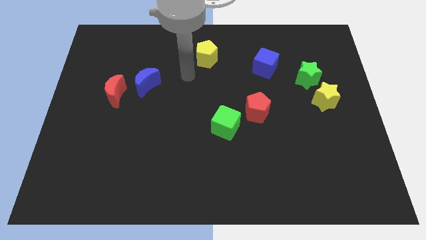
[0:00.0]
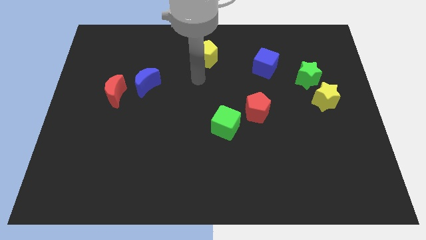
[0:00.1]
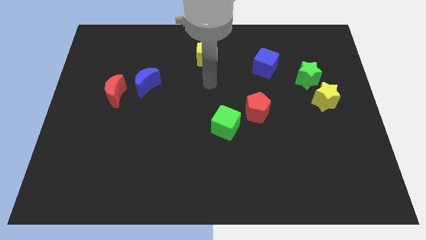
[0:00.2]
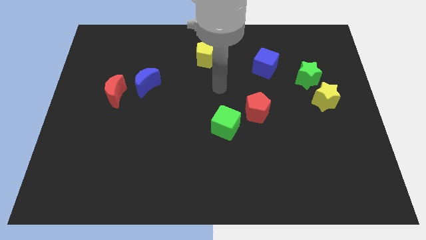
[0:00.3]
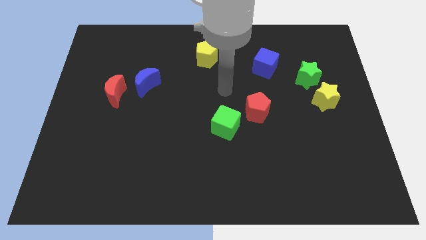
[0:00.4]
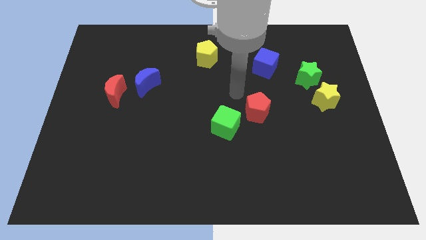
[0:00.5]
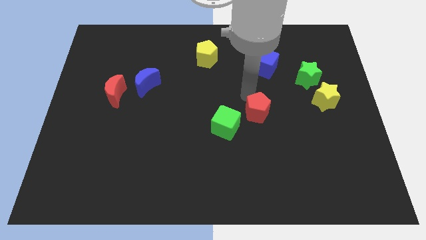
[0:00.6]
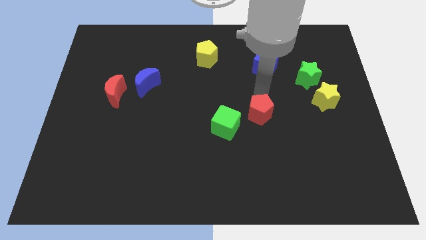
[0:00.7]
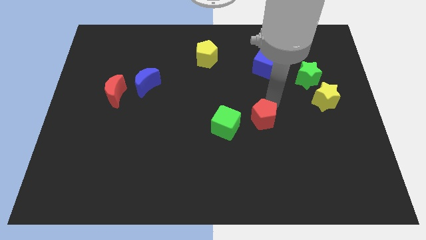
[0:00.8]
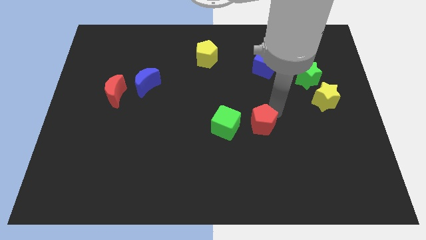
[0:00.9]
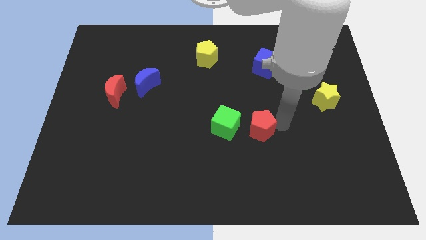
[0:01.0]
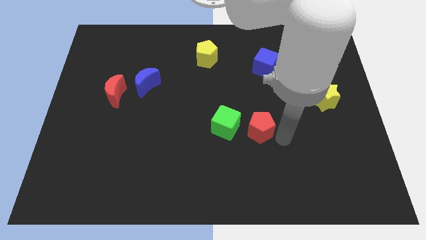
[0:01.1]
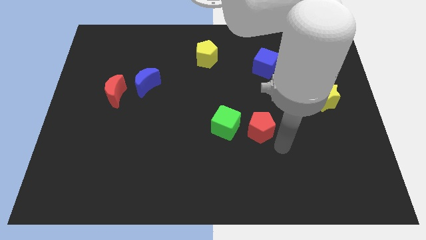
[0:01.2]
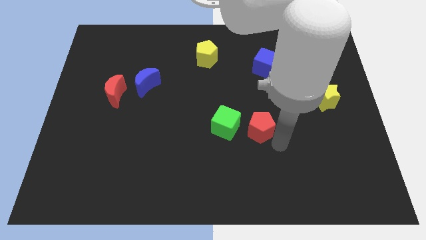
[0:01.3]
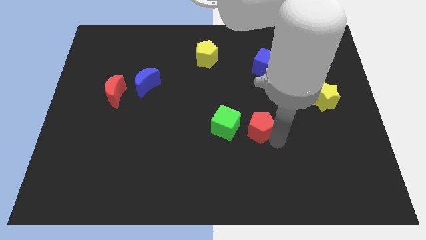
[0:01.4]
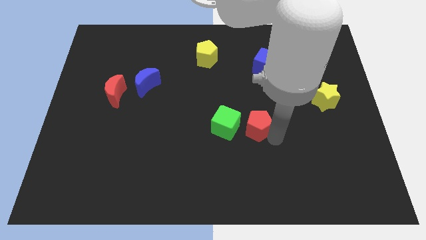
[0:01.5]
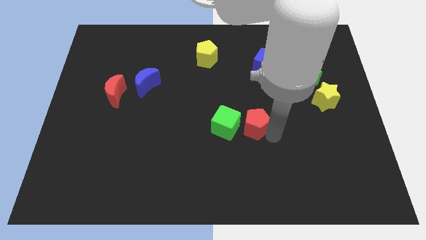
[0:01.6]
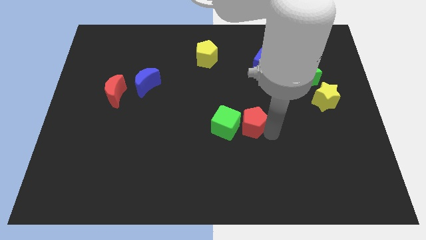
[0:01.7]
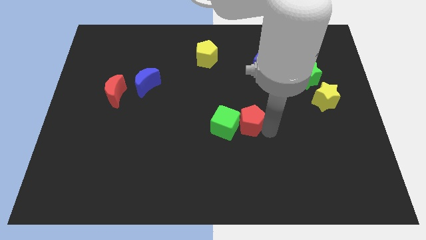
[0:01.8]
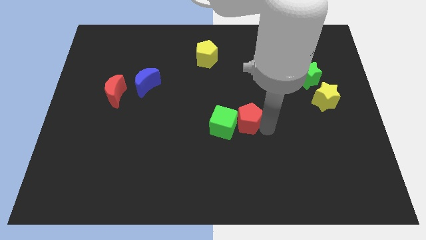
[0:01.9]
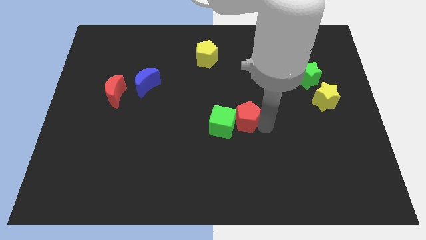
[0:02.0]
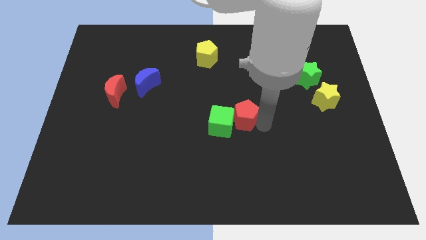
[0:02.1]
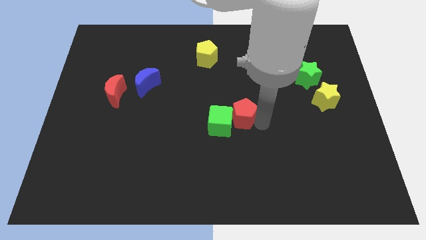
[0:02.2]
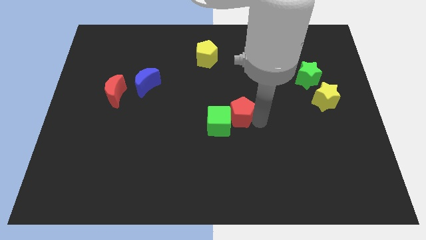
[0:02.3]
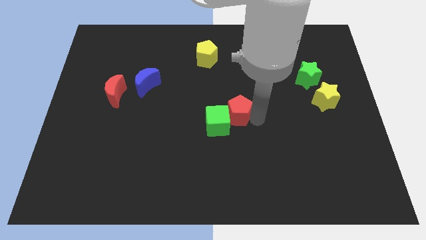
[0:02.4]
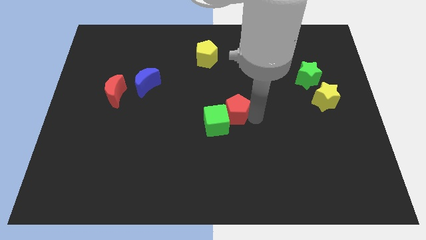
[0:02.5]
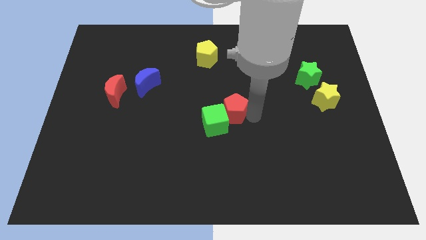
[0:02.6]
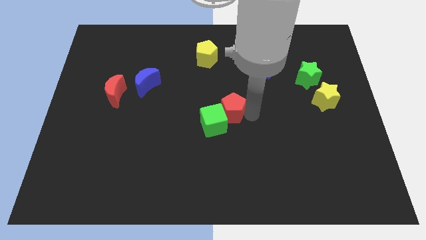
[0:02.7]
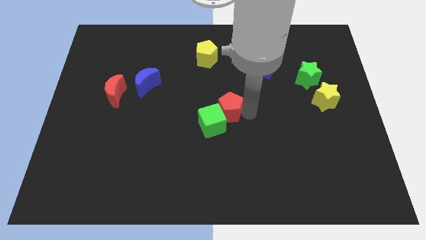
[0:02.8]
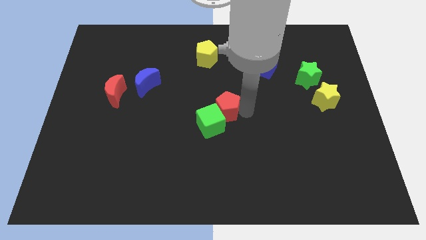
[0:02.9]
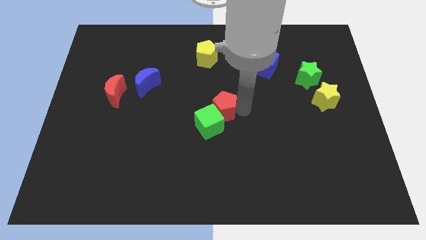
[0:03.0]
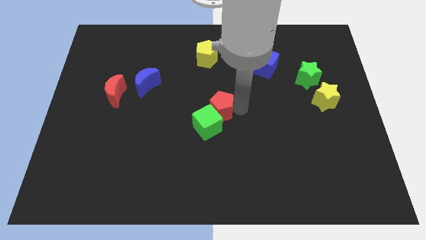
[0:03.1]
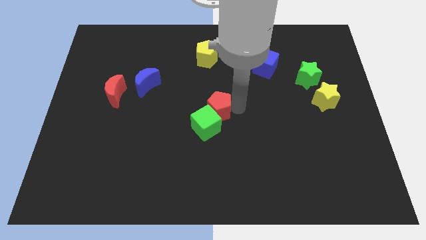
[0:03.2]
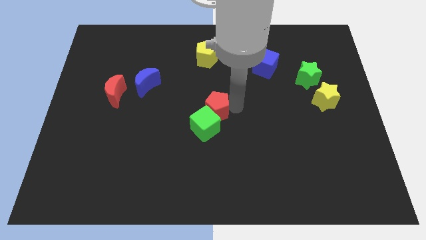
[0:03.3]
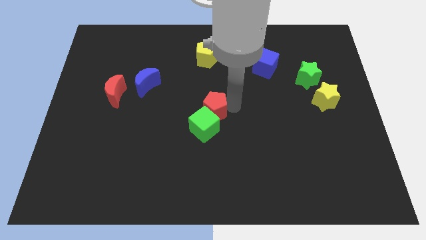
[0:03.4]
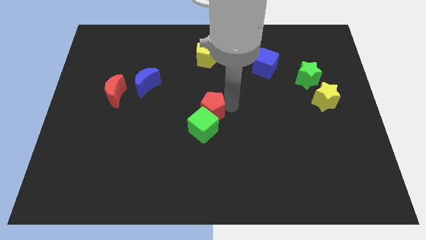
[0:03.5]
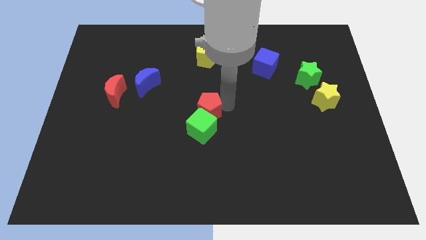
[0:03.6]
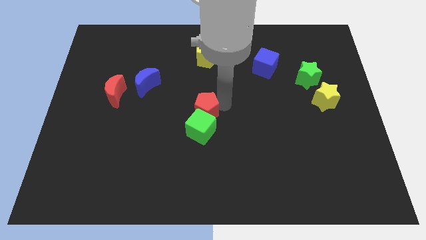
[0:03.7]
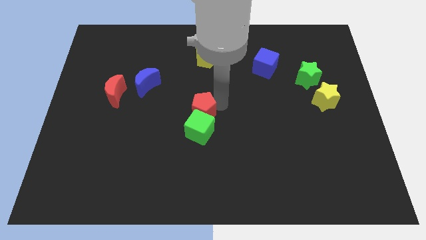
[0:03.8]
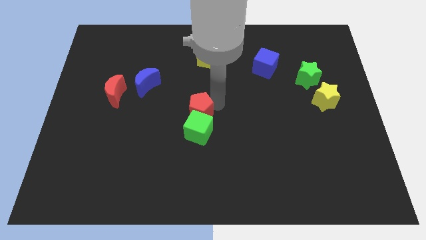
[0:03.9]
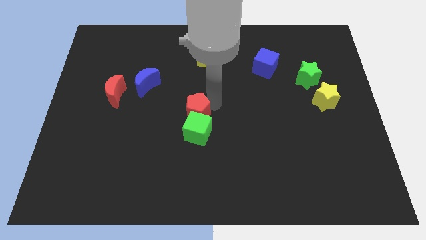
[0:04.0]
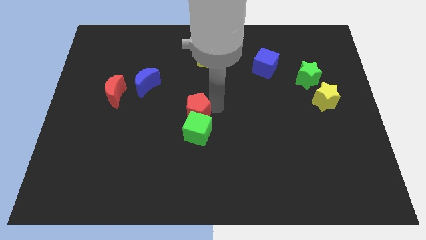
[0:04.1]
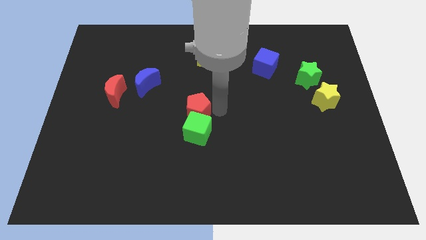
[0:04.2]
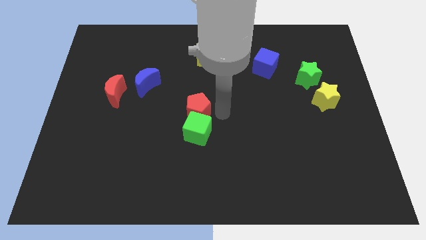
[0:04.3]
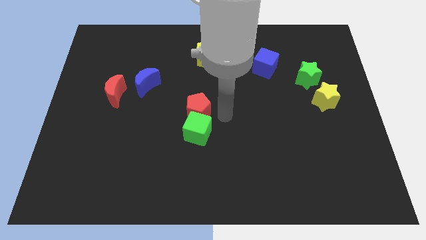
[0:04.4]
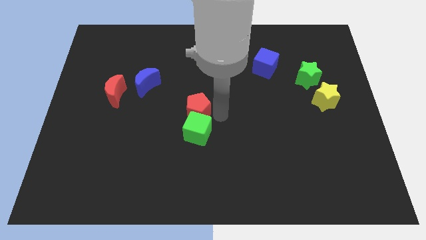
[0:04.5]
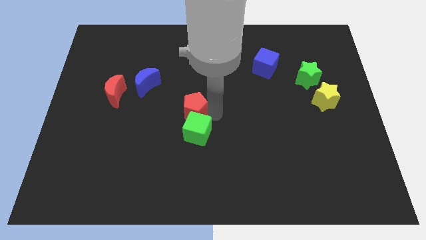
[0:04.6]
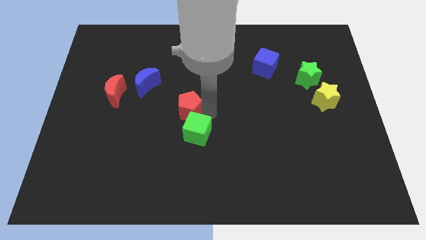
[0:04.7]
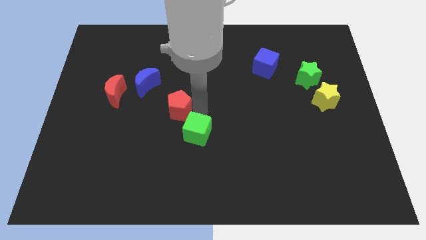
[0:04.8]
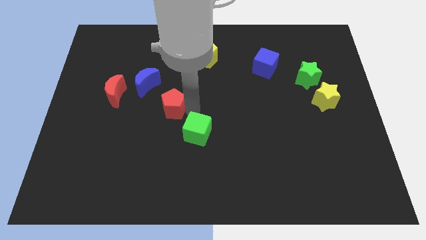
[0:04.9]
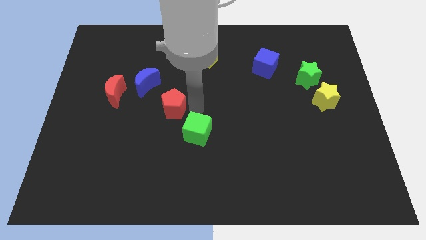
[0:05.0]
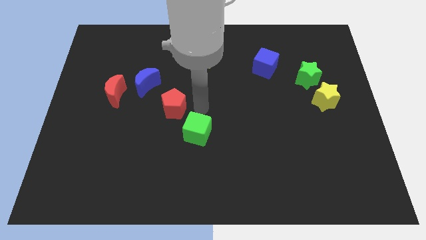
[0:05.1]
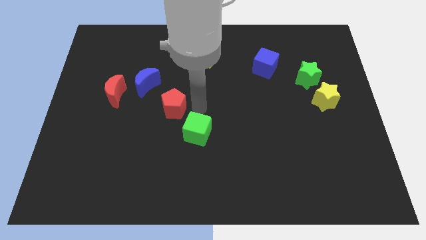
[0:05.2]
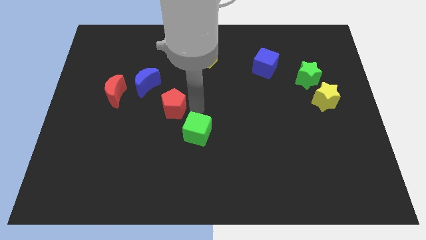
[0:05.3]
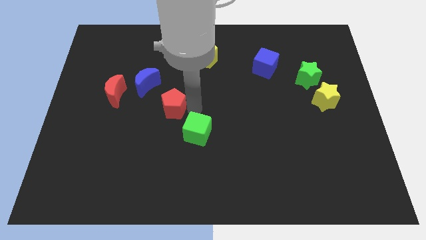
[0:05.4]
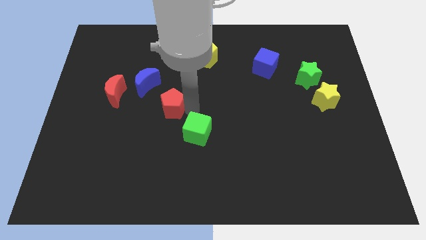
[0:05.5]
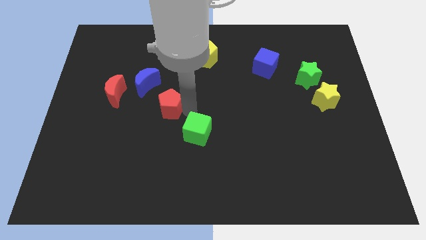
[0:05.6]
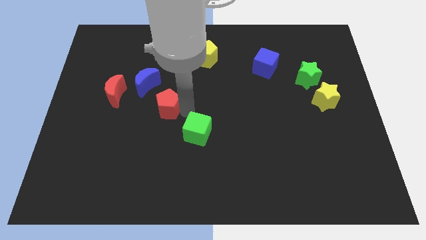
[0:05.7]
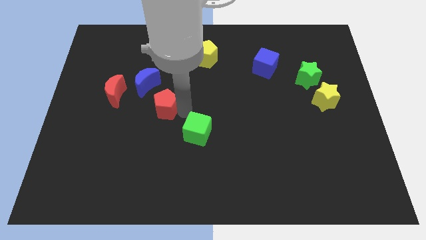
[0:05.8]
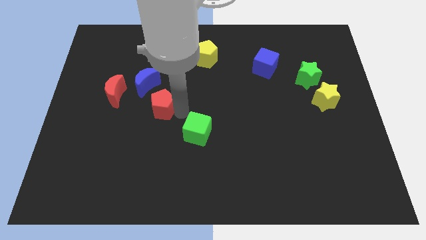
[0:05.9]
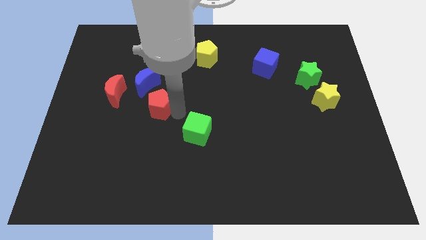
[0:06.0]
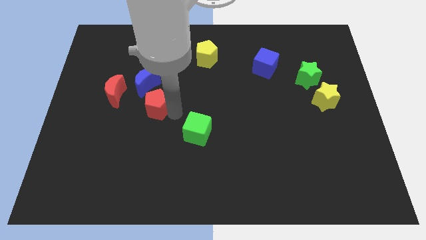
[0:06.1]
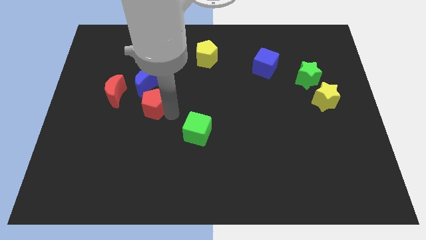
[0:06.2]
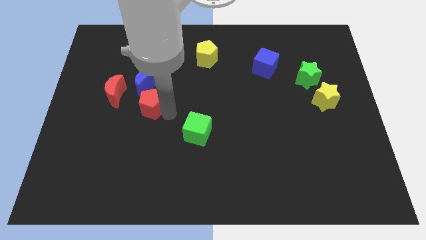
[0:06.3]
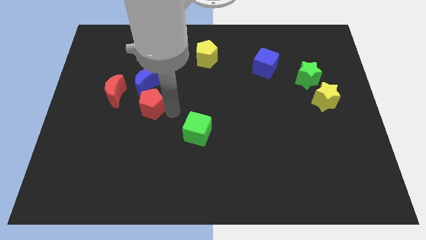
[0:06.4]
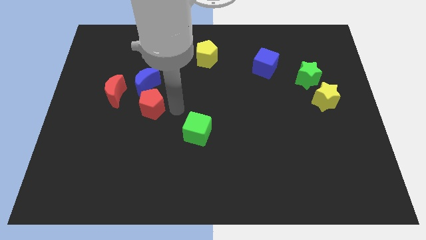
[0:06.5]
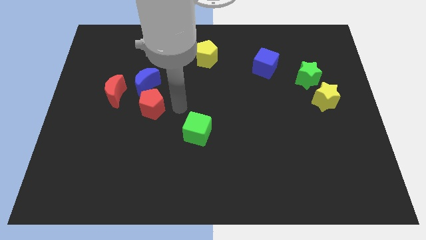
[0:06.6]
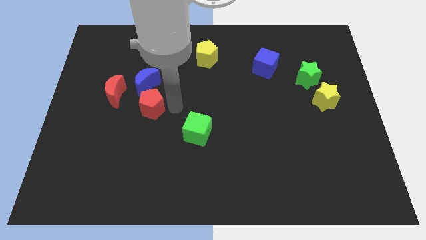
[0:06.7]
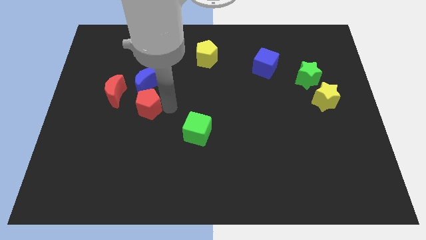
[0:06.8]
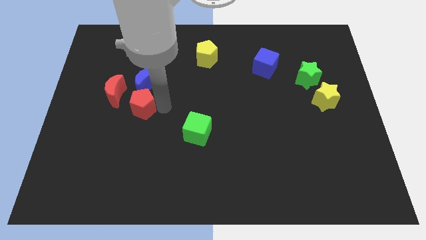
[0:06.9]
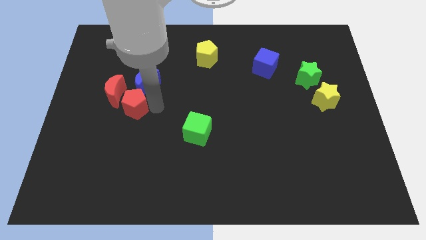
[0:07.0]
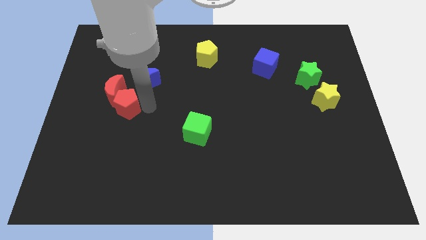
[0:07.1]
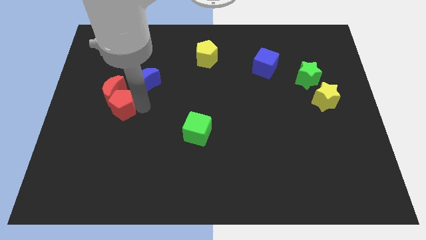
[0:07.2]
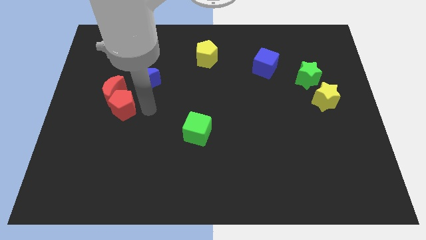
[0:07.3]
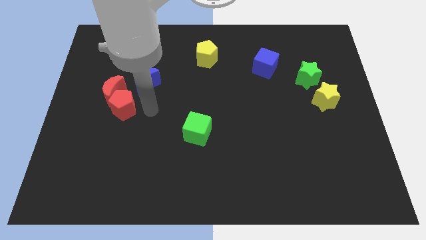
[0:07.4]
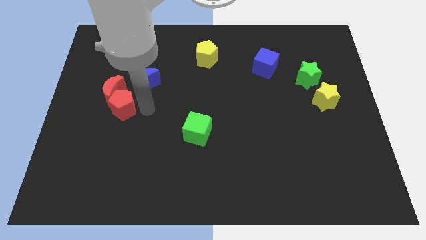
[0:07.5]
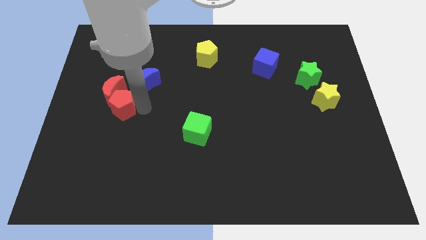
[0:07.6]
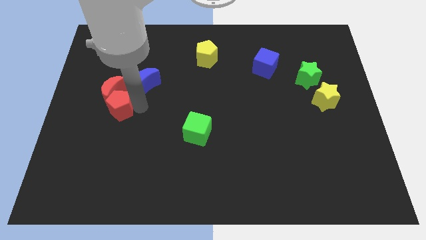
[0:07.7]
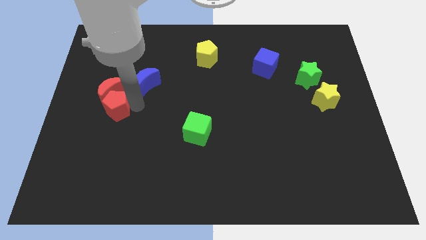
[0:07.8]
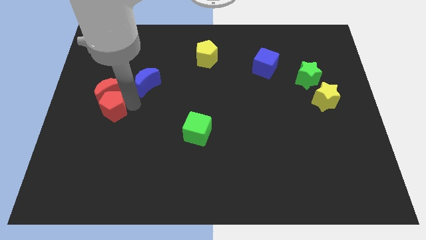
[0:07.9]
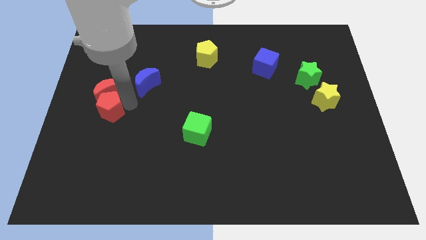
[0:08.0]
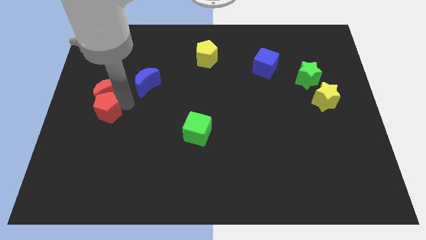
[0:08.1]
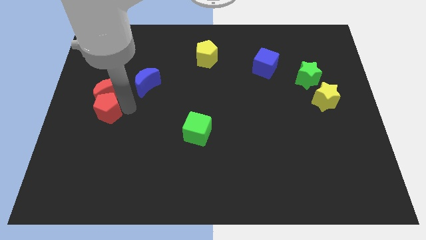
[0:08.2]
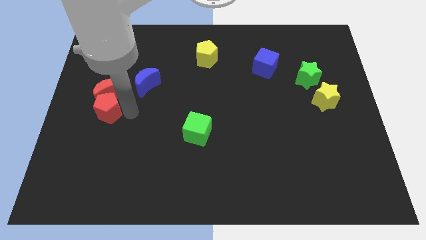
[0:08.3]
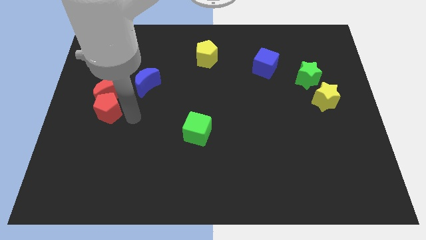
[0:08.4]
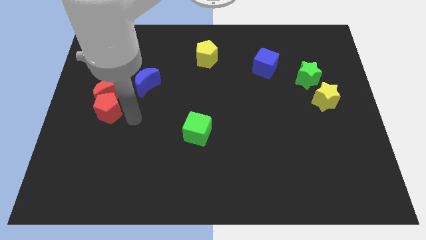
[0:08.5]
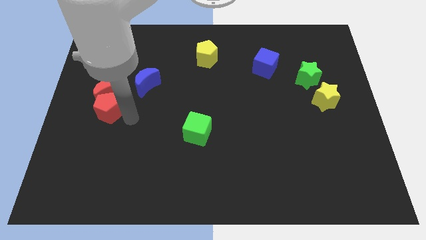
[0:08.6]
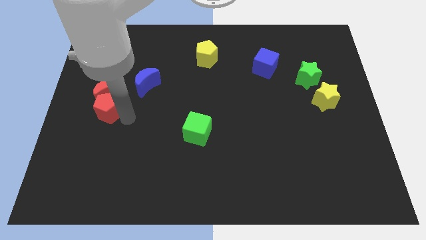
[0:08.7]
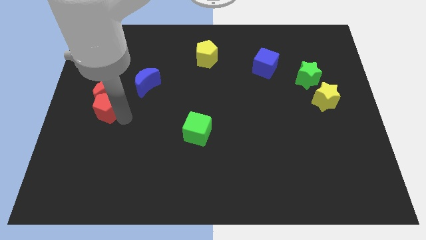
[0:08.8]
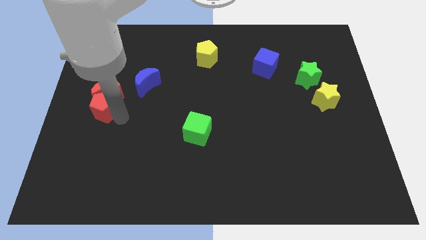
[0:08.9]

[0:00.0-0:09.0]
move the red pentagon to the left side of the board
